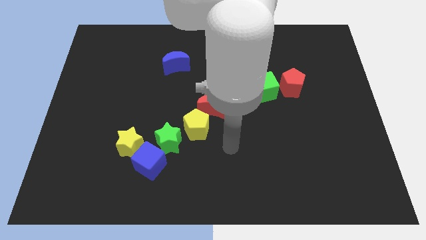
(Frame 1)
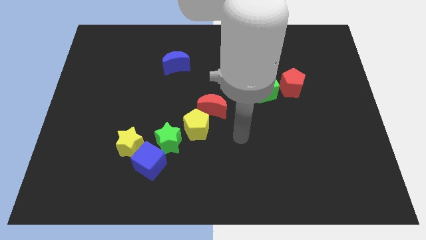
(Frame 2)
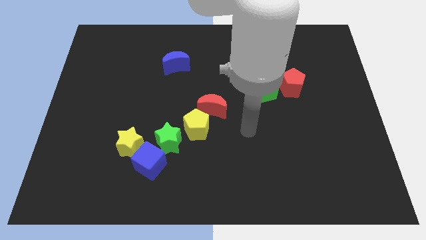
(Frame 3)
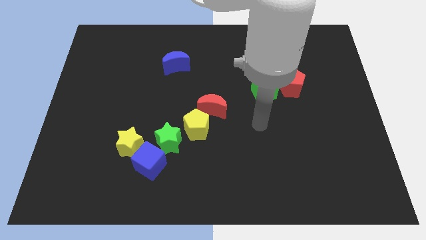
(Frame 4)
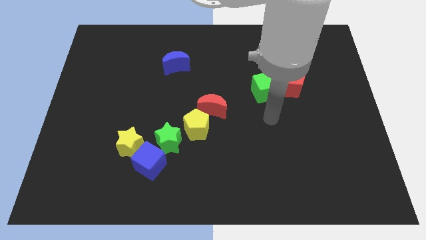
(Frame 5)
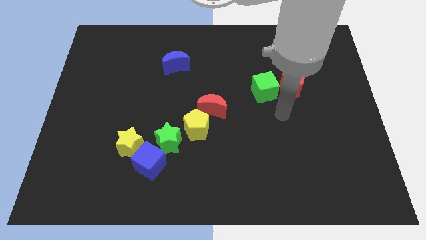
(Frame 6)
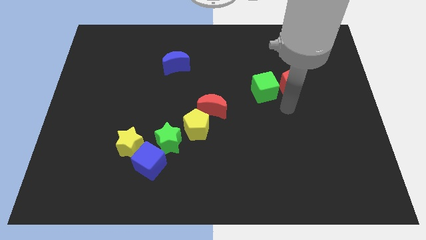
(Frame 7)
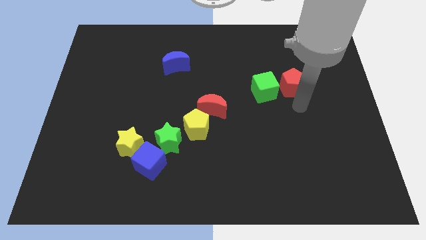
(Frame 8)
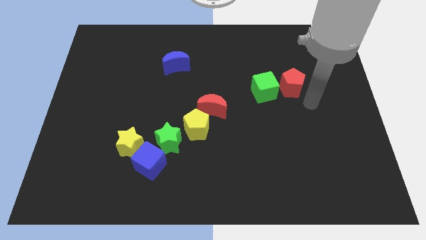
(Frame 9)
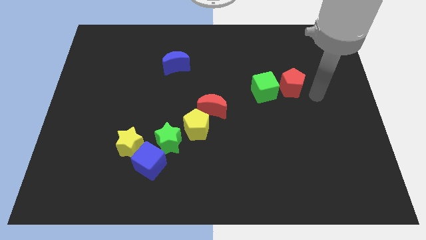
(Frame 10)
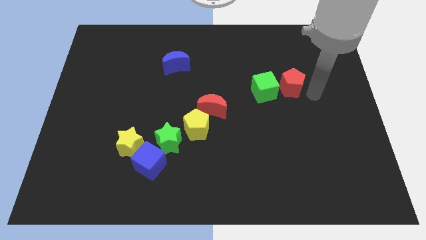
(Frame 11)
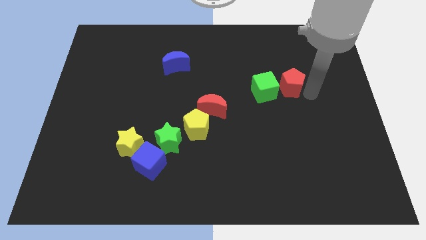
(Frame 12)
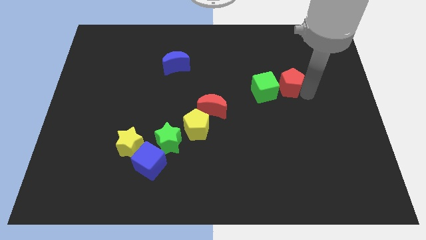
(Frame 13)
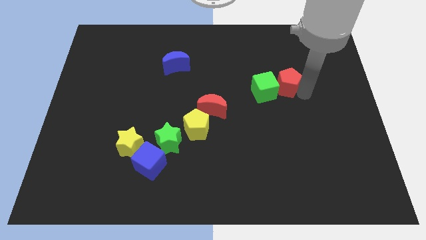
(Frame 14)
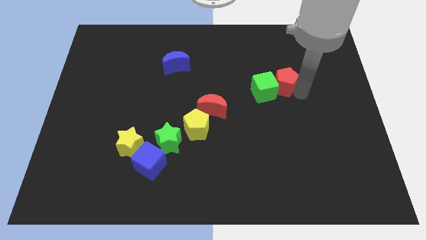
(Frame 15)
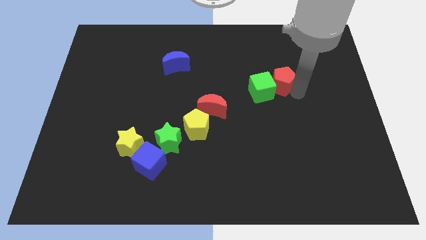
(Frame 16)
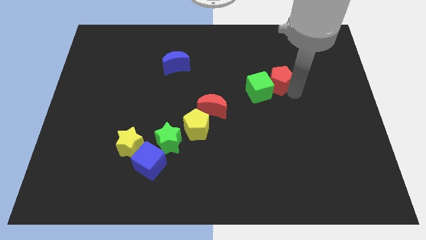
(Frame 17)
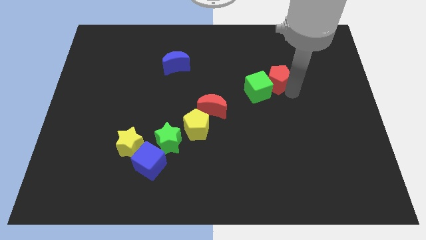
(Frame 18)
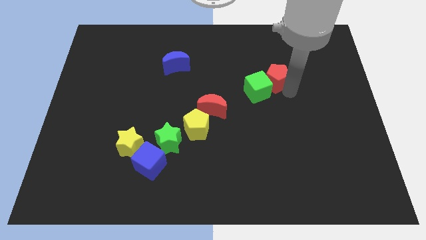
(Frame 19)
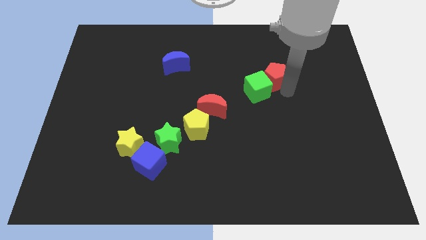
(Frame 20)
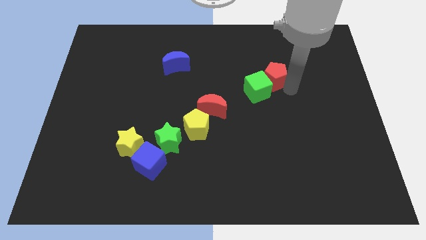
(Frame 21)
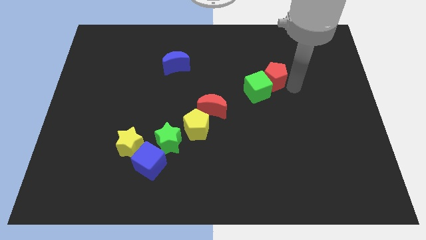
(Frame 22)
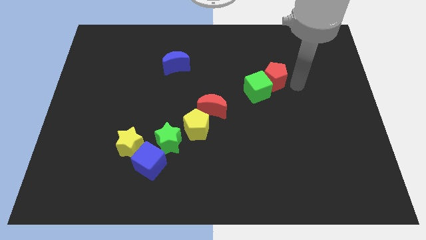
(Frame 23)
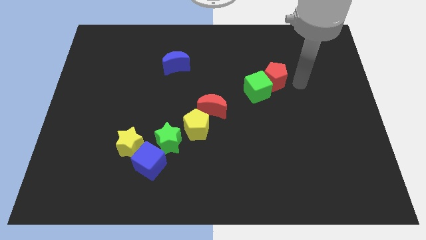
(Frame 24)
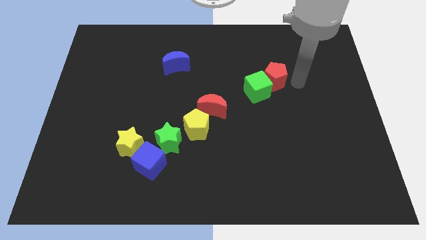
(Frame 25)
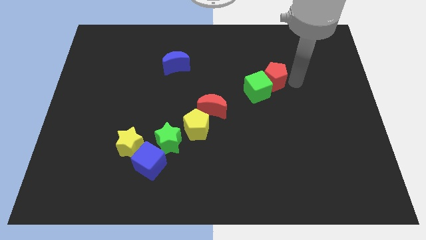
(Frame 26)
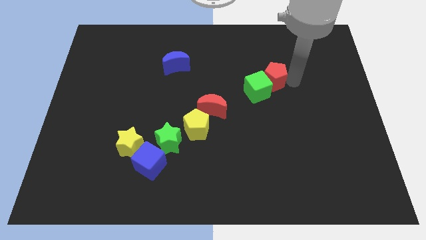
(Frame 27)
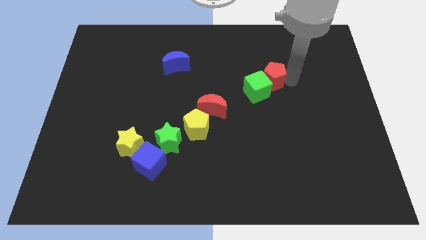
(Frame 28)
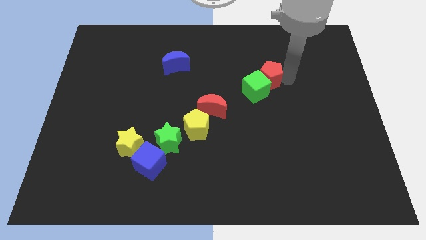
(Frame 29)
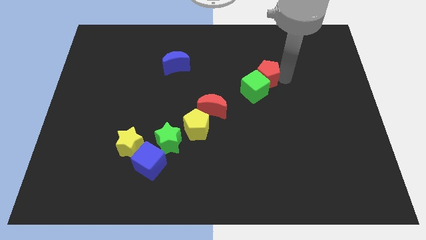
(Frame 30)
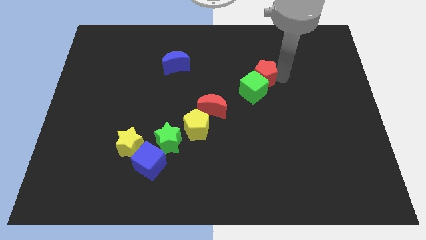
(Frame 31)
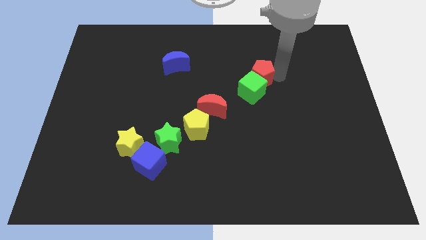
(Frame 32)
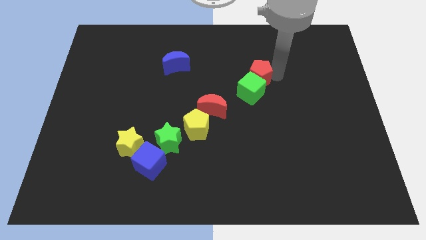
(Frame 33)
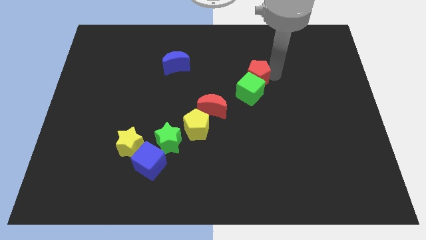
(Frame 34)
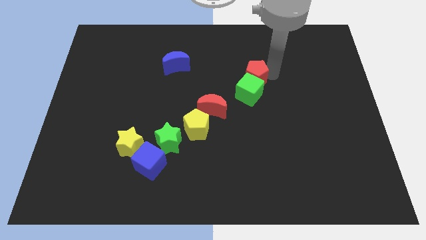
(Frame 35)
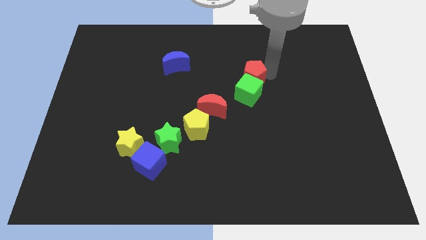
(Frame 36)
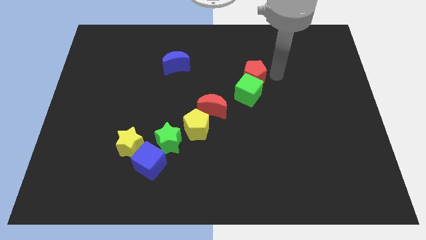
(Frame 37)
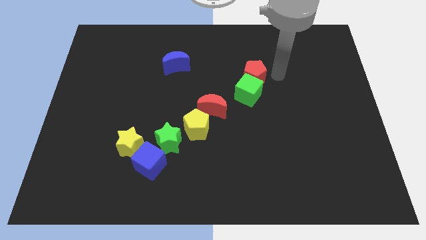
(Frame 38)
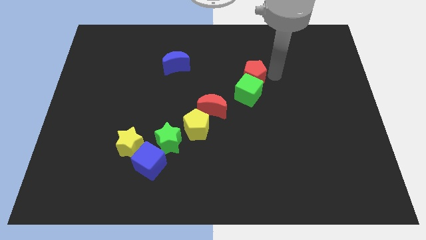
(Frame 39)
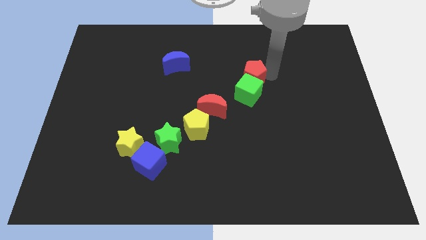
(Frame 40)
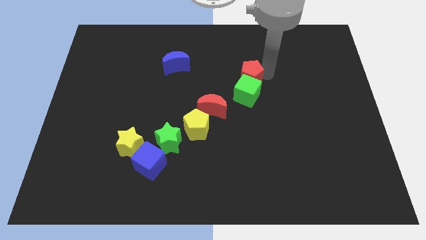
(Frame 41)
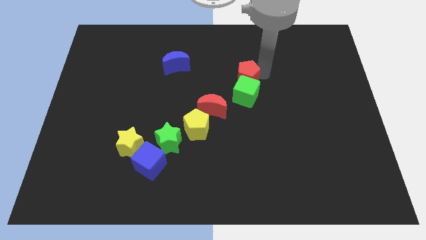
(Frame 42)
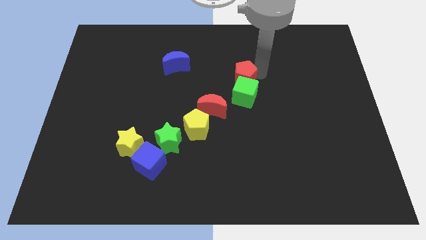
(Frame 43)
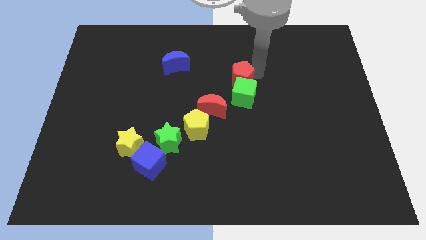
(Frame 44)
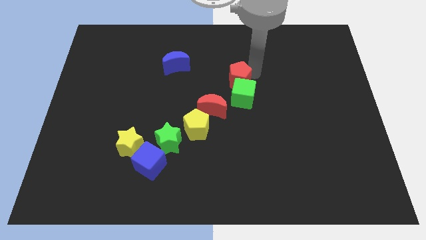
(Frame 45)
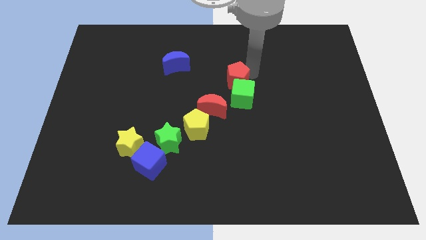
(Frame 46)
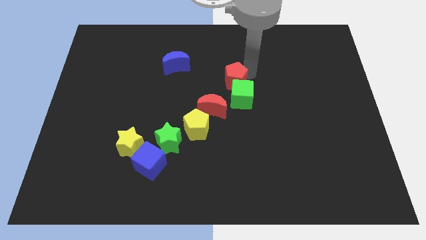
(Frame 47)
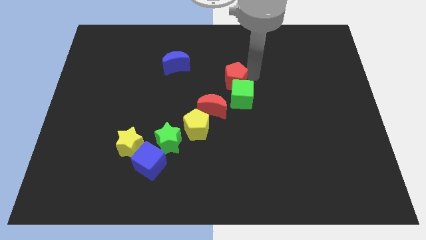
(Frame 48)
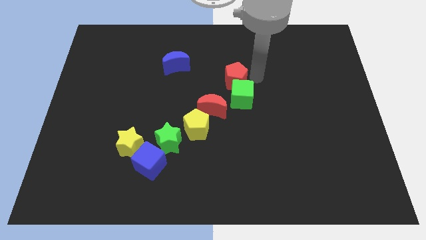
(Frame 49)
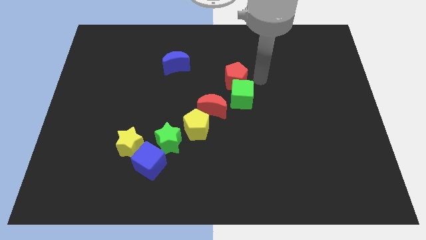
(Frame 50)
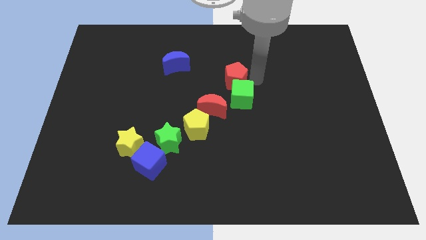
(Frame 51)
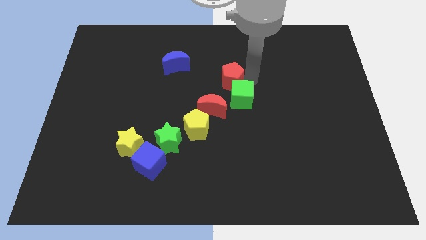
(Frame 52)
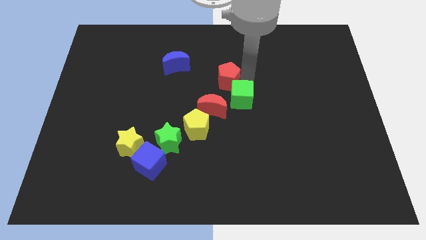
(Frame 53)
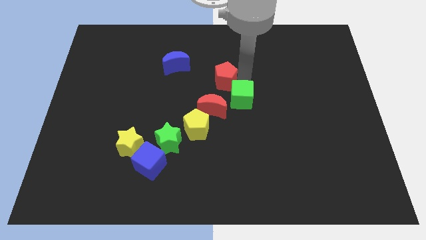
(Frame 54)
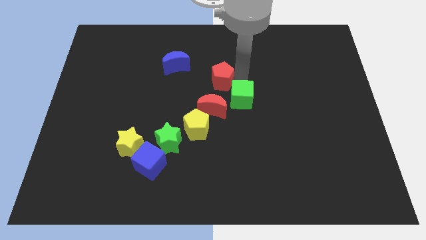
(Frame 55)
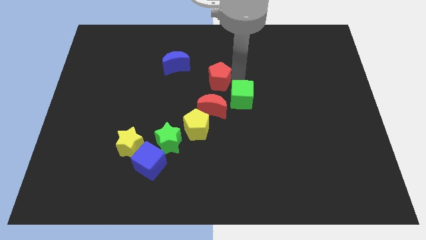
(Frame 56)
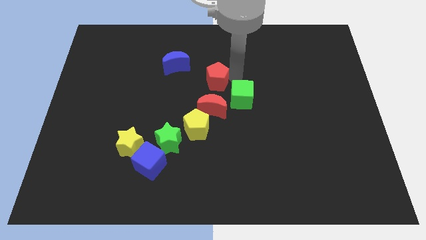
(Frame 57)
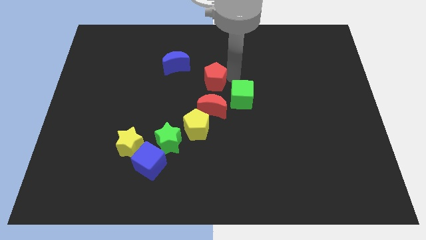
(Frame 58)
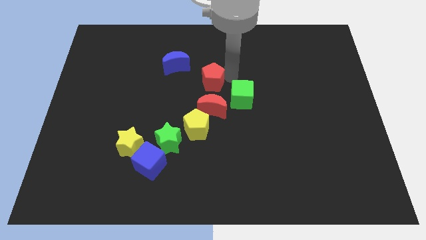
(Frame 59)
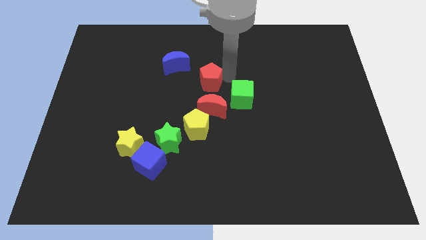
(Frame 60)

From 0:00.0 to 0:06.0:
move the red pentagon to the left

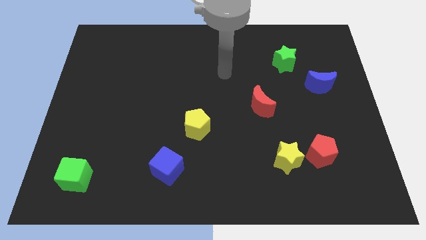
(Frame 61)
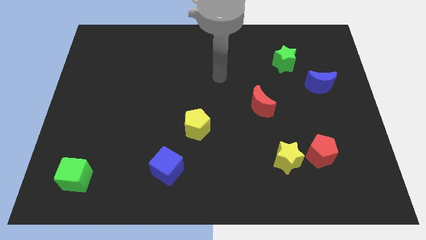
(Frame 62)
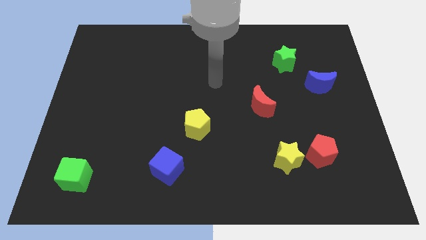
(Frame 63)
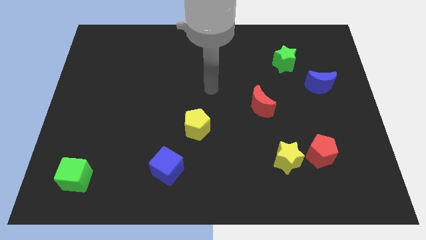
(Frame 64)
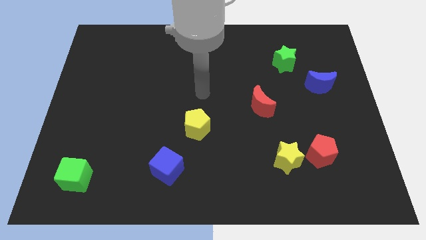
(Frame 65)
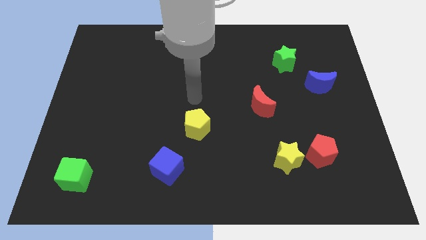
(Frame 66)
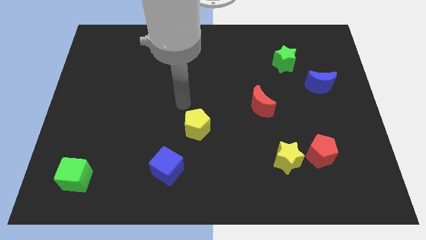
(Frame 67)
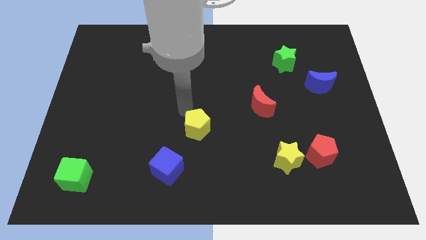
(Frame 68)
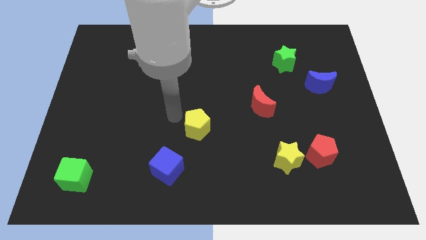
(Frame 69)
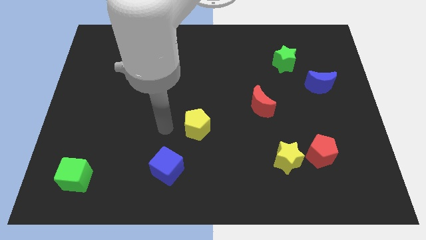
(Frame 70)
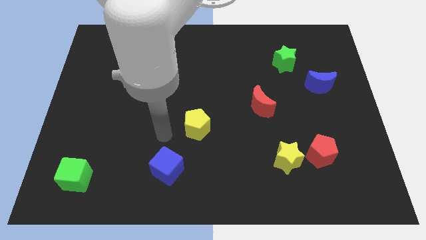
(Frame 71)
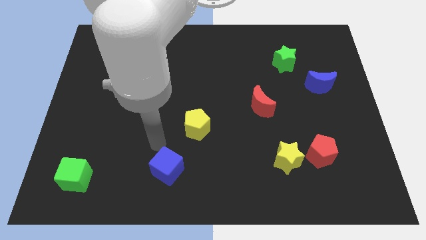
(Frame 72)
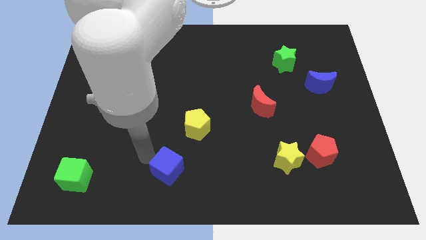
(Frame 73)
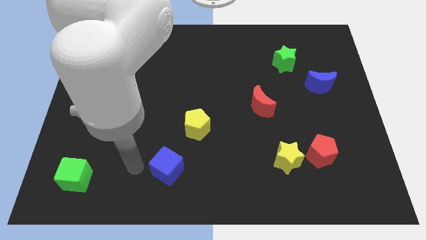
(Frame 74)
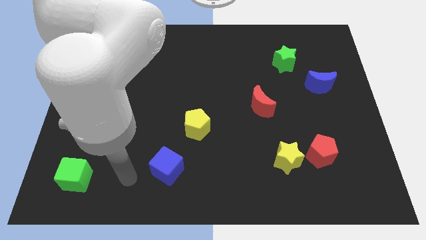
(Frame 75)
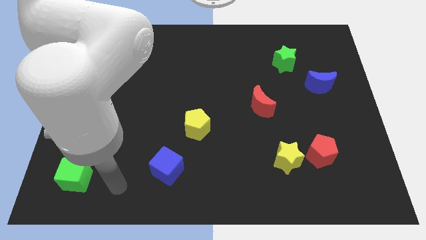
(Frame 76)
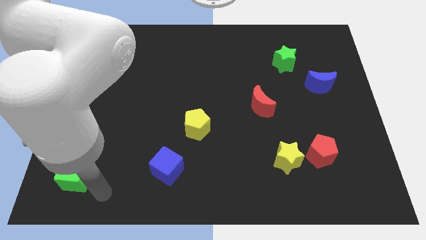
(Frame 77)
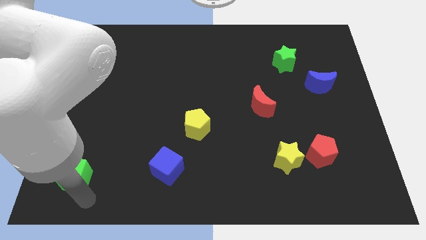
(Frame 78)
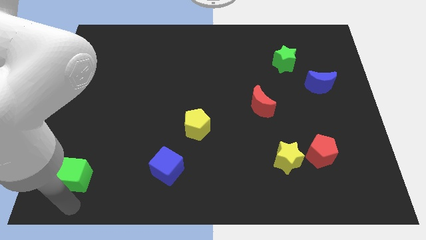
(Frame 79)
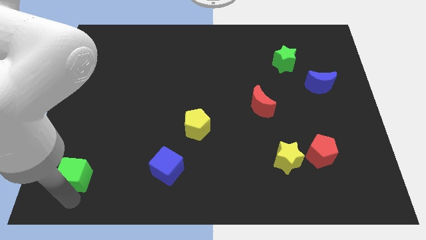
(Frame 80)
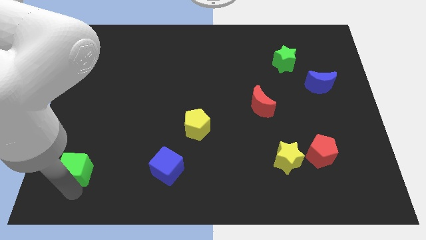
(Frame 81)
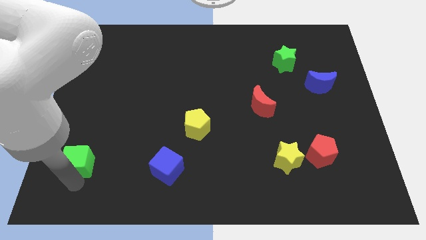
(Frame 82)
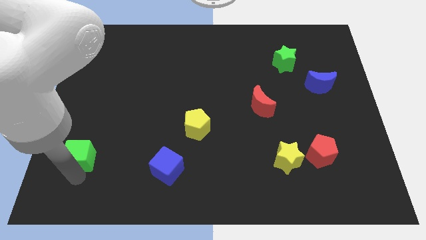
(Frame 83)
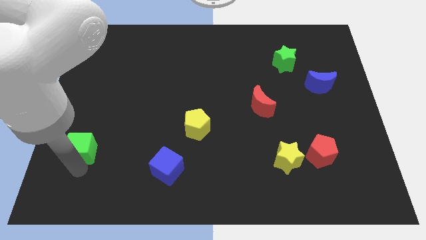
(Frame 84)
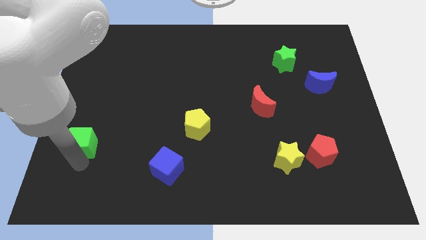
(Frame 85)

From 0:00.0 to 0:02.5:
move the green cube up a bit
